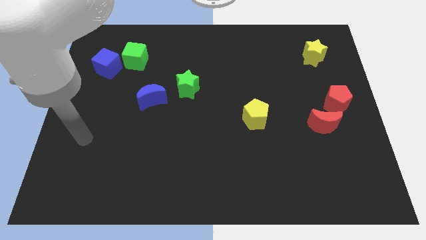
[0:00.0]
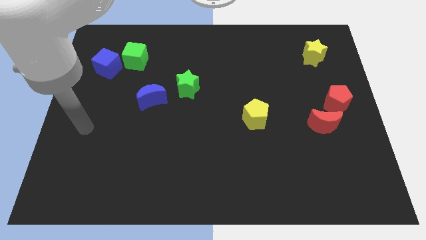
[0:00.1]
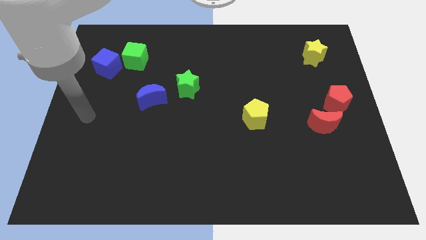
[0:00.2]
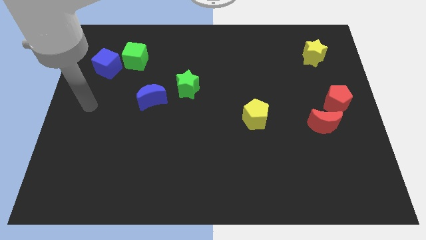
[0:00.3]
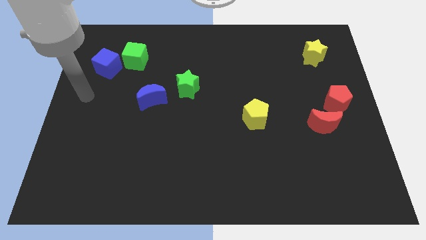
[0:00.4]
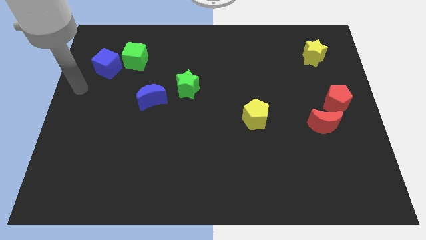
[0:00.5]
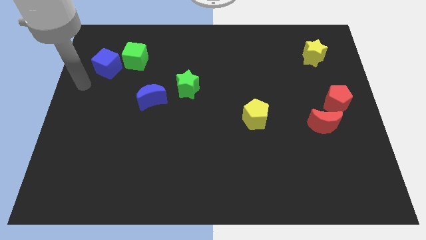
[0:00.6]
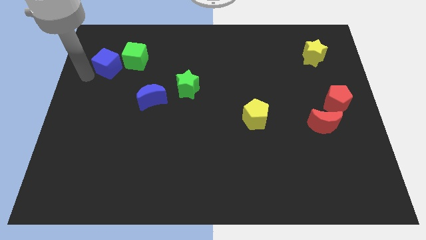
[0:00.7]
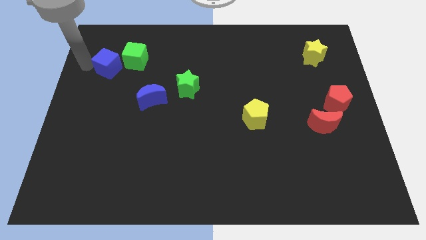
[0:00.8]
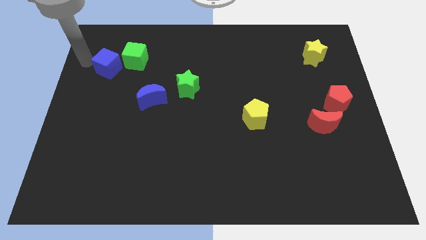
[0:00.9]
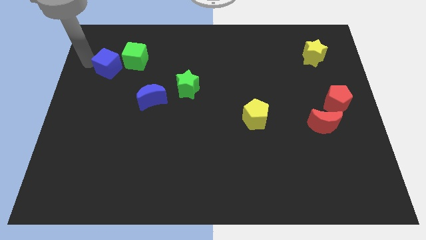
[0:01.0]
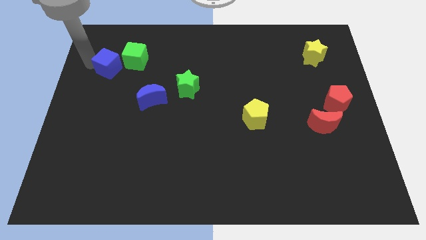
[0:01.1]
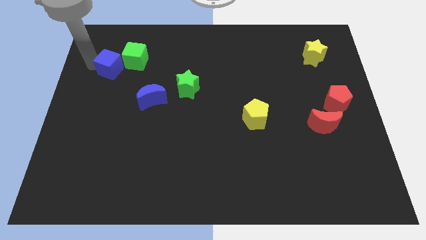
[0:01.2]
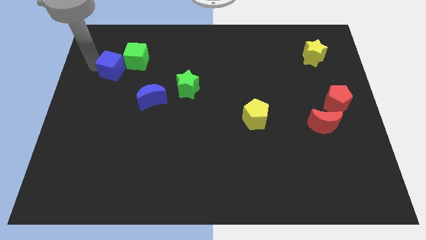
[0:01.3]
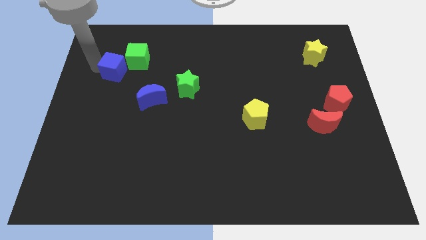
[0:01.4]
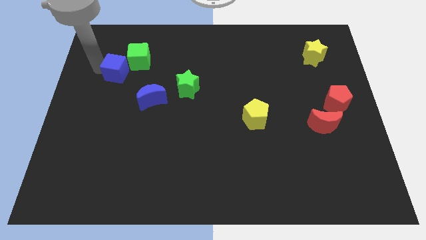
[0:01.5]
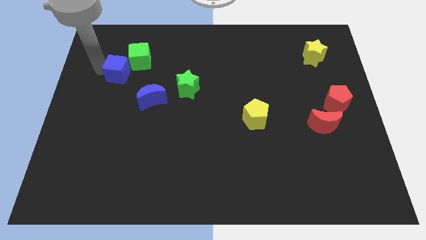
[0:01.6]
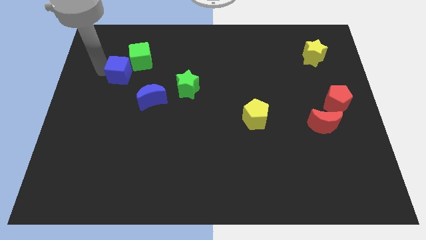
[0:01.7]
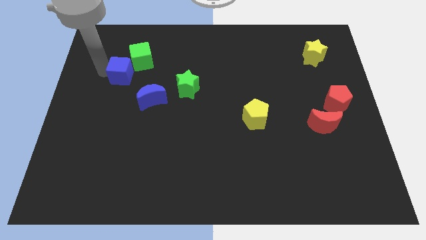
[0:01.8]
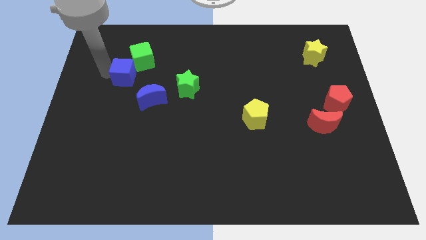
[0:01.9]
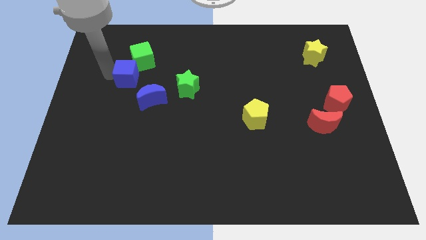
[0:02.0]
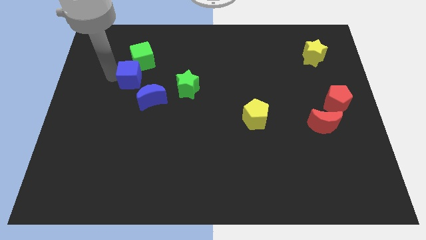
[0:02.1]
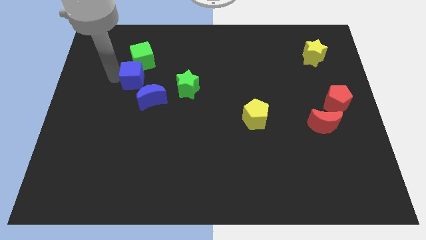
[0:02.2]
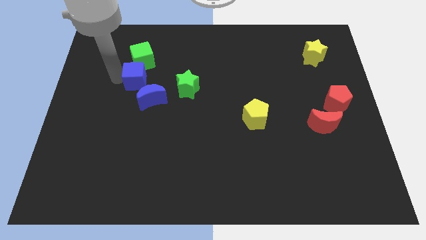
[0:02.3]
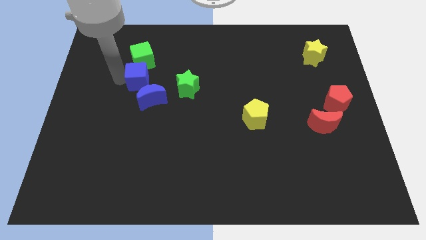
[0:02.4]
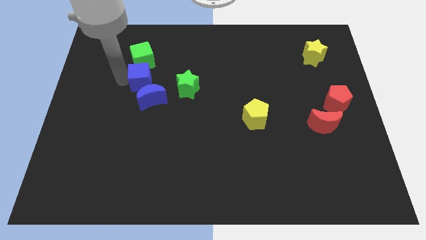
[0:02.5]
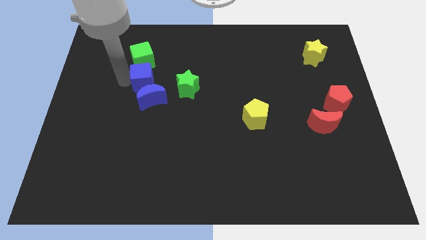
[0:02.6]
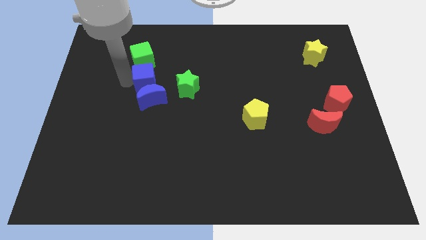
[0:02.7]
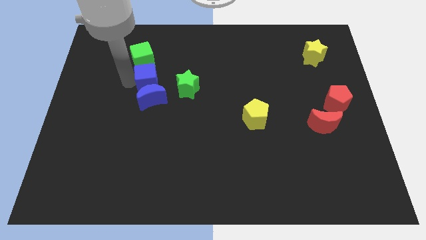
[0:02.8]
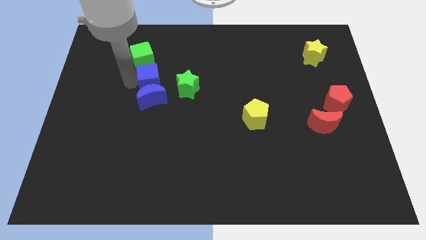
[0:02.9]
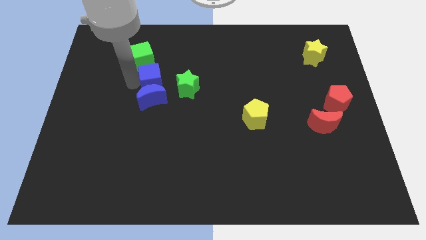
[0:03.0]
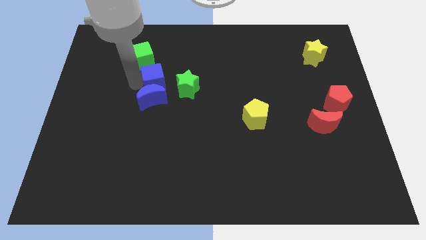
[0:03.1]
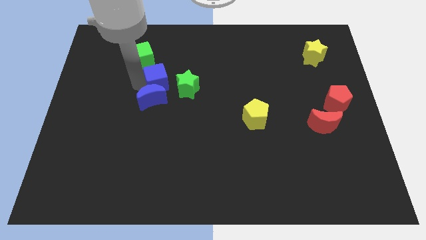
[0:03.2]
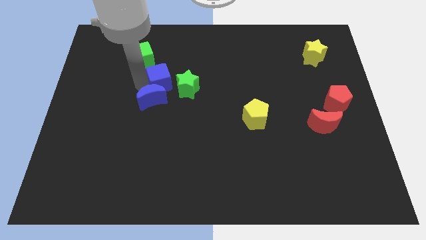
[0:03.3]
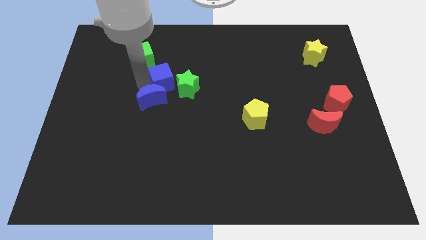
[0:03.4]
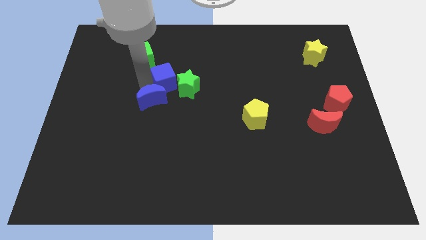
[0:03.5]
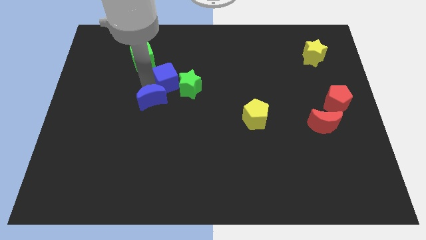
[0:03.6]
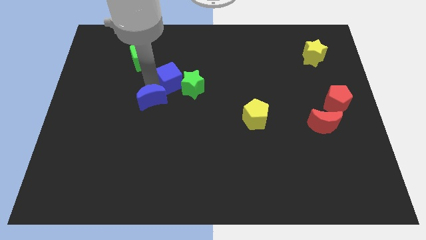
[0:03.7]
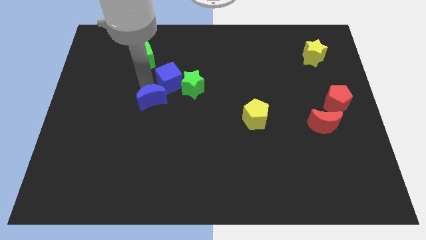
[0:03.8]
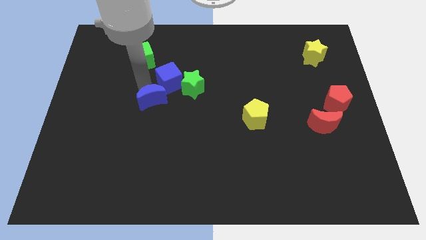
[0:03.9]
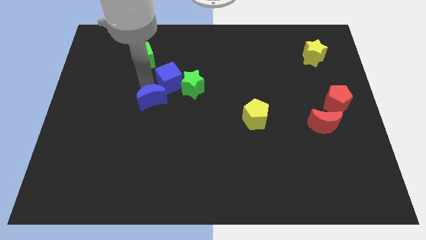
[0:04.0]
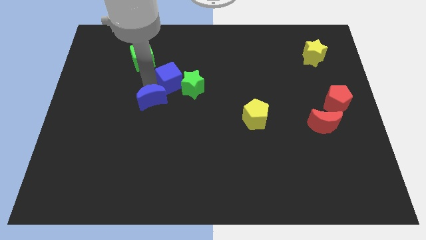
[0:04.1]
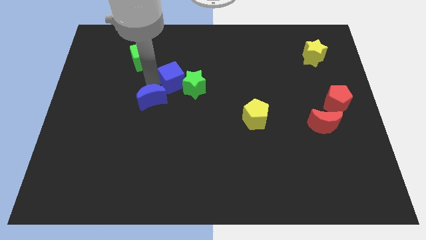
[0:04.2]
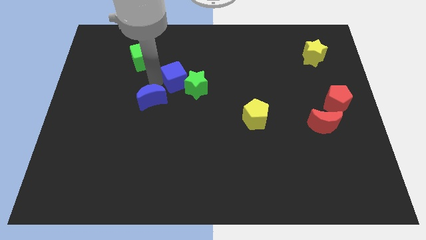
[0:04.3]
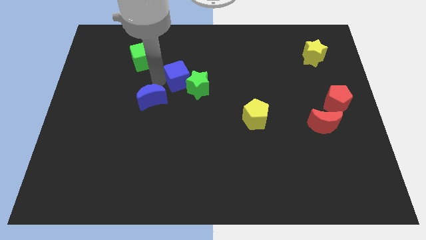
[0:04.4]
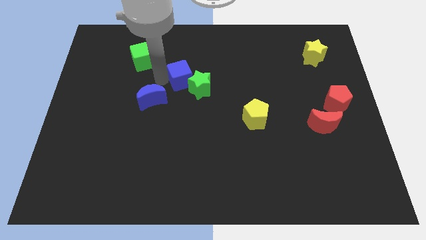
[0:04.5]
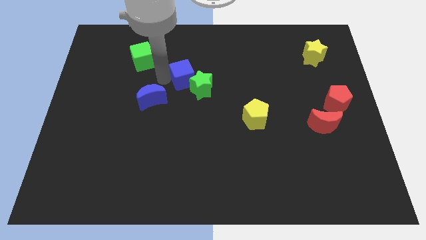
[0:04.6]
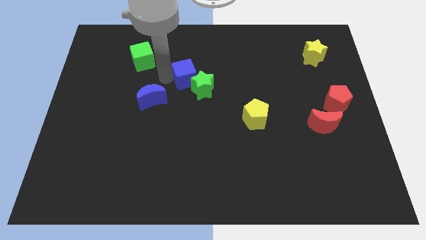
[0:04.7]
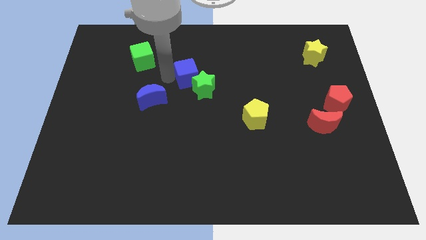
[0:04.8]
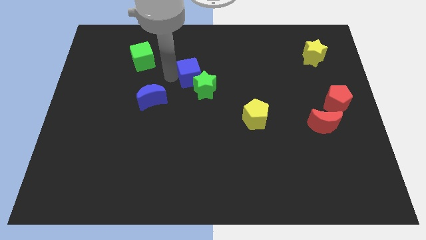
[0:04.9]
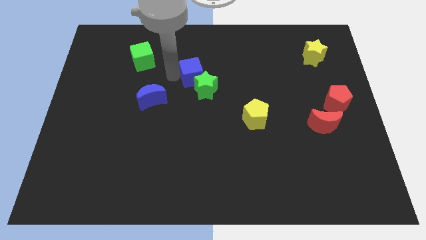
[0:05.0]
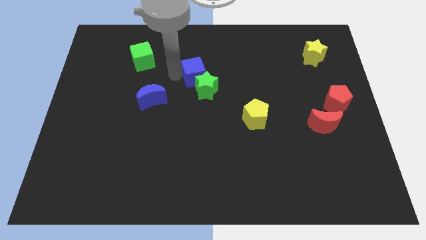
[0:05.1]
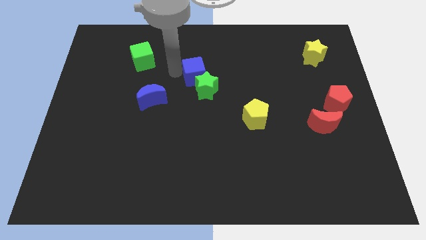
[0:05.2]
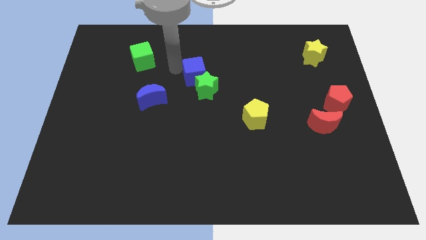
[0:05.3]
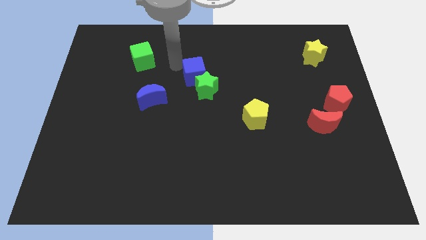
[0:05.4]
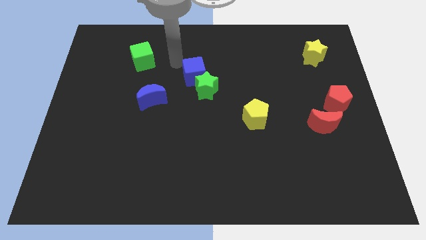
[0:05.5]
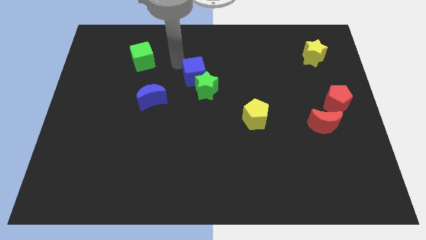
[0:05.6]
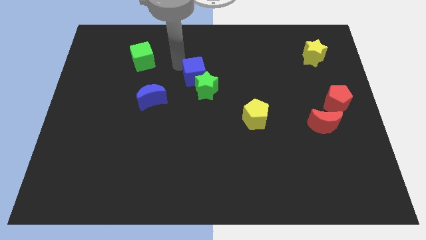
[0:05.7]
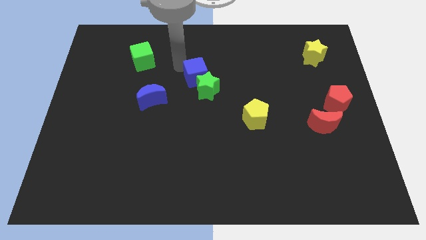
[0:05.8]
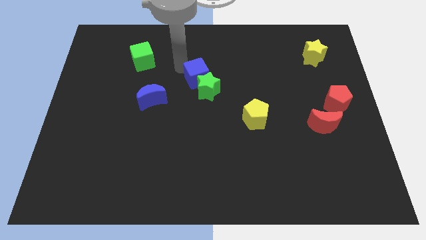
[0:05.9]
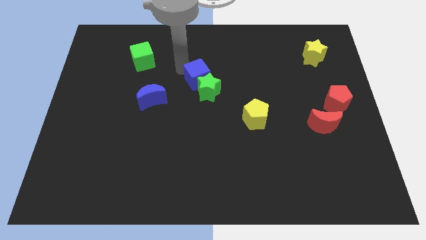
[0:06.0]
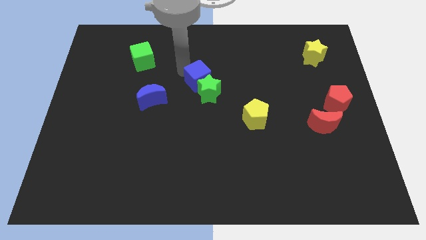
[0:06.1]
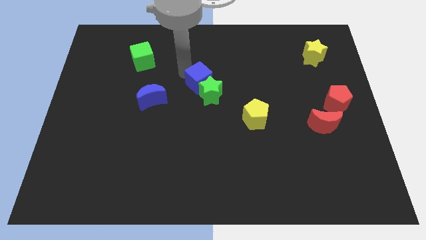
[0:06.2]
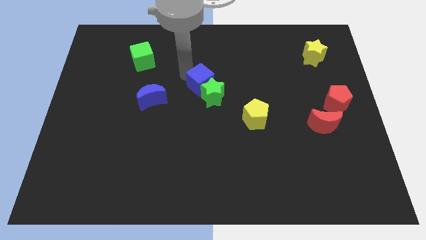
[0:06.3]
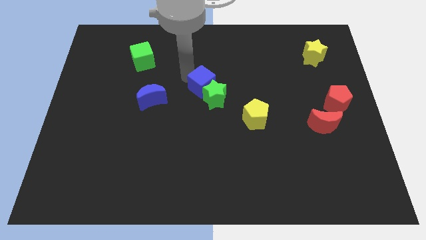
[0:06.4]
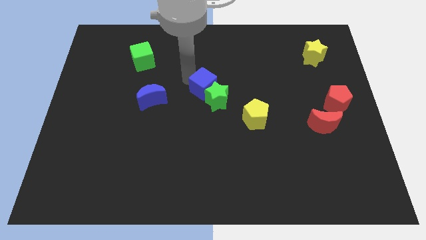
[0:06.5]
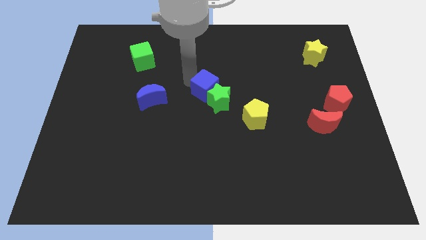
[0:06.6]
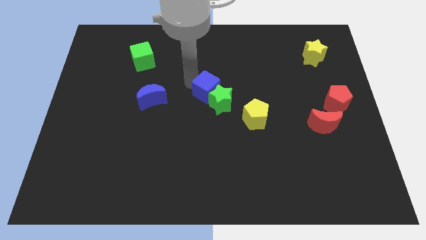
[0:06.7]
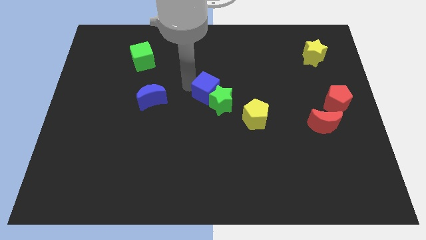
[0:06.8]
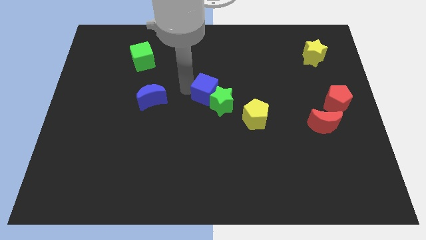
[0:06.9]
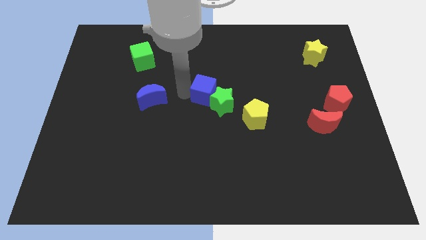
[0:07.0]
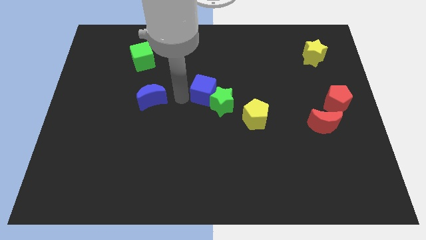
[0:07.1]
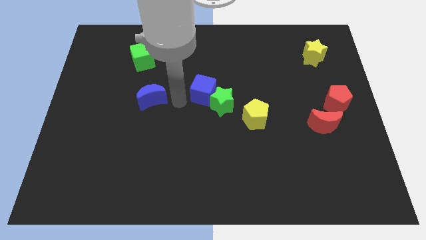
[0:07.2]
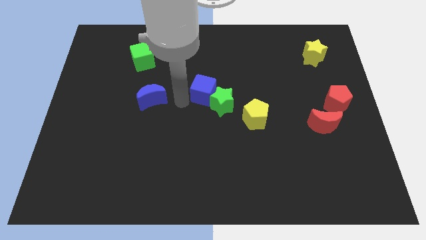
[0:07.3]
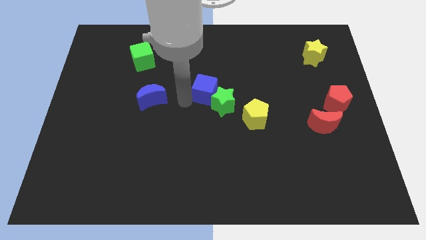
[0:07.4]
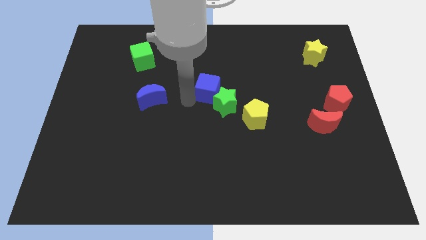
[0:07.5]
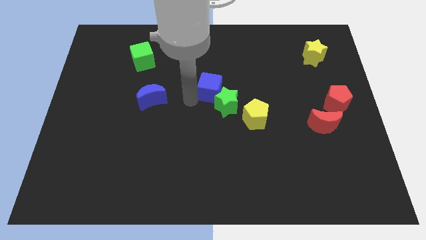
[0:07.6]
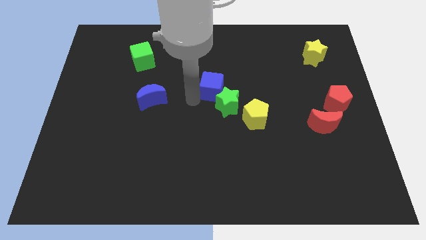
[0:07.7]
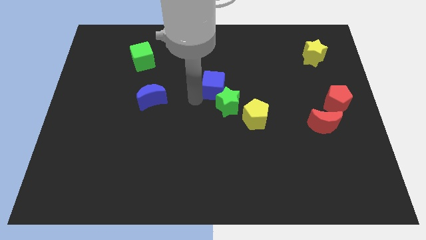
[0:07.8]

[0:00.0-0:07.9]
put the blue cube to the top left of the yellow pentagon
